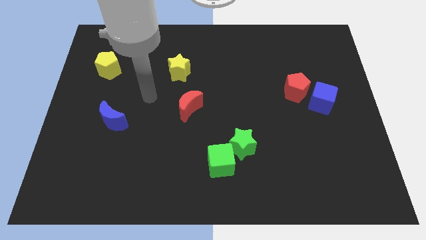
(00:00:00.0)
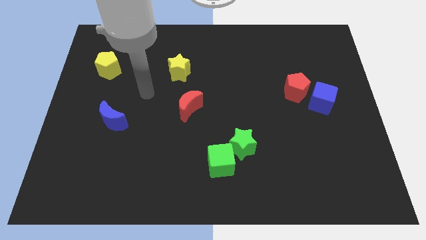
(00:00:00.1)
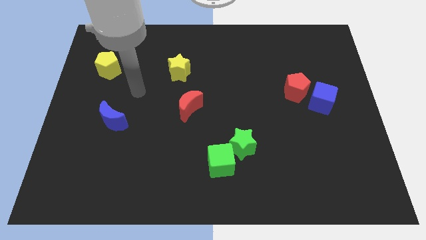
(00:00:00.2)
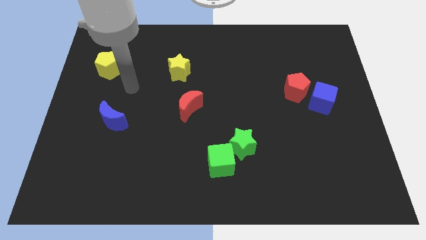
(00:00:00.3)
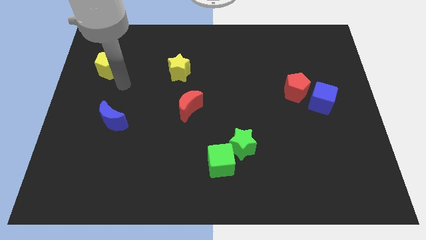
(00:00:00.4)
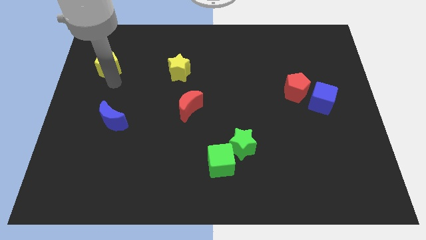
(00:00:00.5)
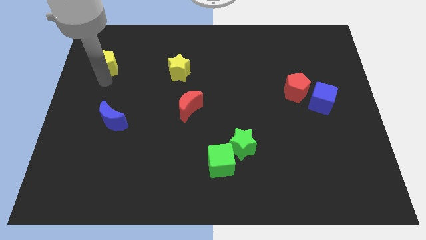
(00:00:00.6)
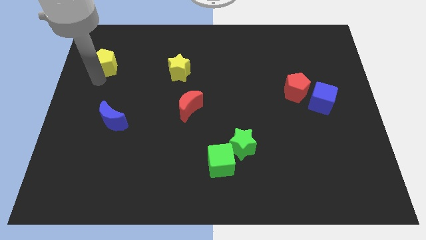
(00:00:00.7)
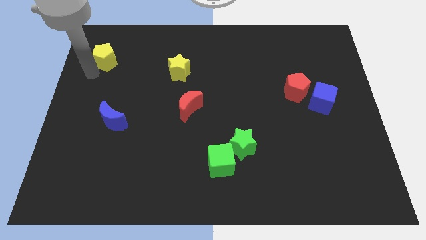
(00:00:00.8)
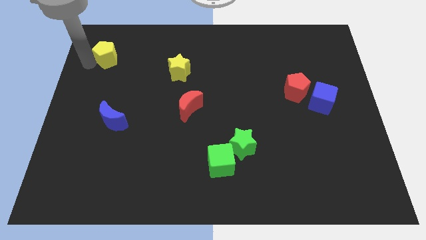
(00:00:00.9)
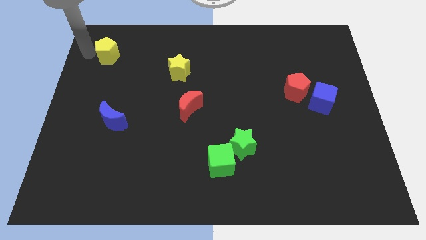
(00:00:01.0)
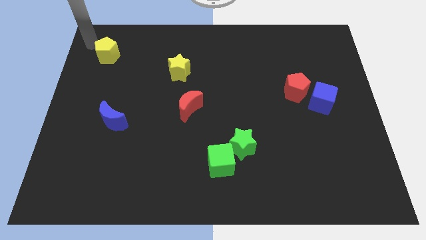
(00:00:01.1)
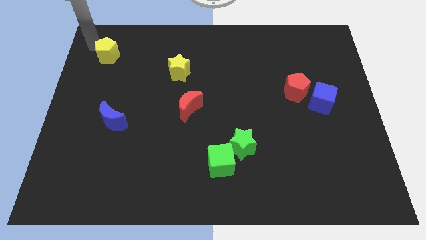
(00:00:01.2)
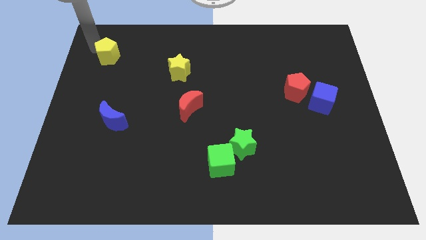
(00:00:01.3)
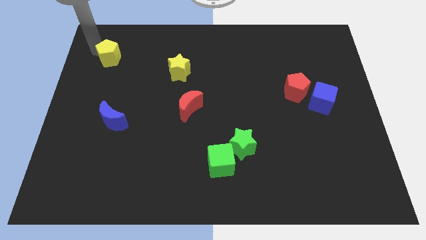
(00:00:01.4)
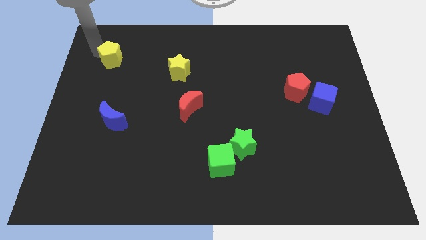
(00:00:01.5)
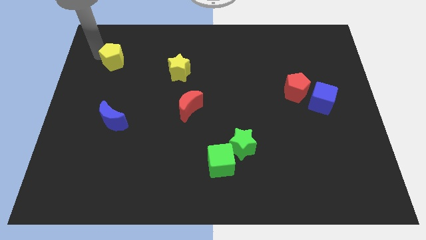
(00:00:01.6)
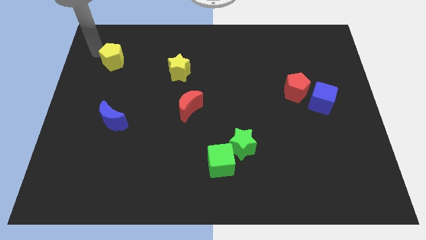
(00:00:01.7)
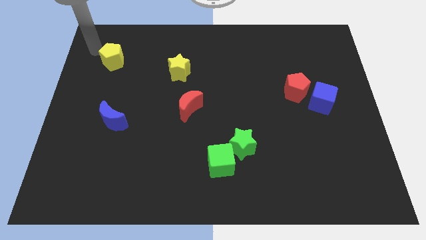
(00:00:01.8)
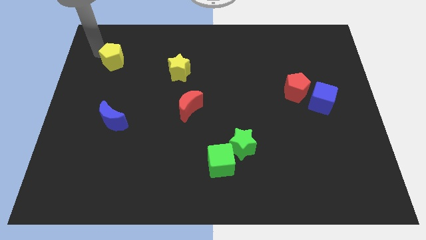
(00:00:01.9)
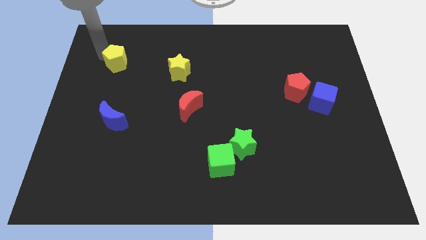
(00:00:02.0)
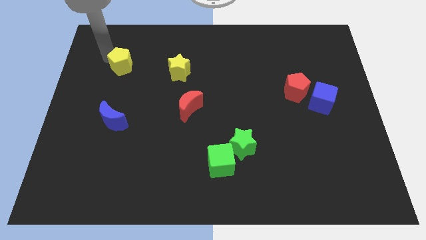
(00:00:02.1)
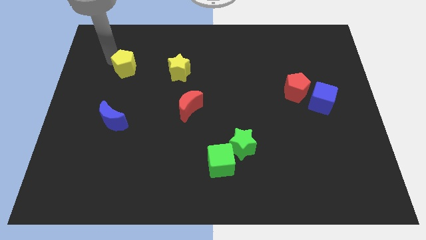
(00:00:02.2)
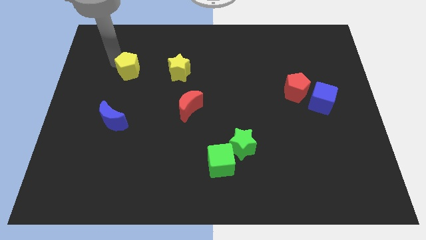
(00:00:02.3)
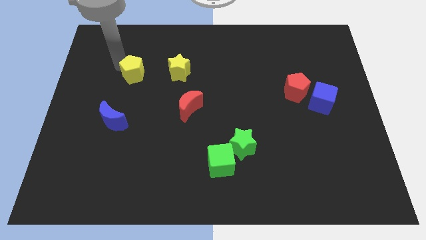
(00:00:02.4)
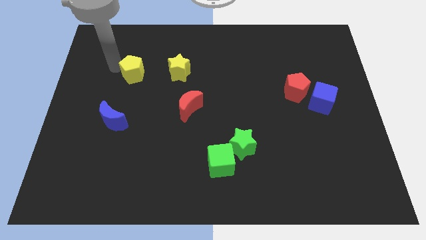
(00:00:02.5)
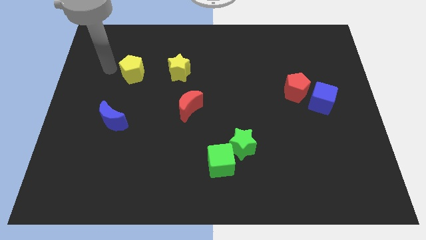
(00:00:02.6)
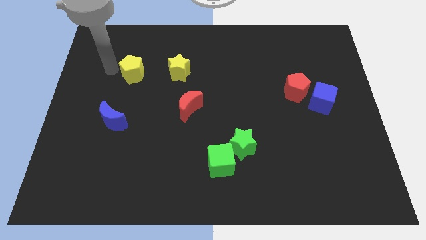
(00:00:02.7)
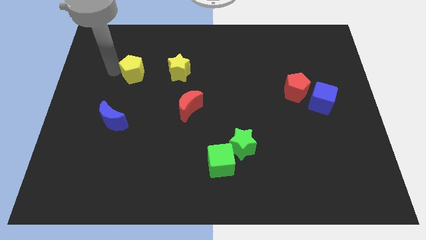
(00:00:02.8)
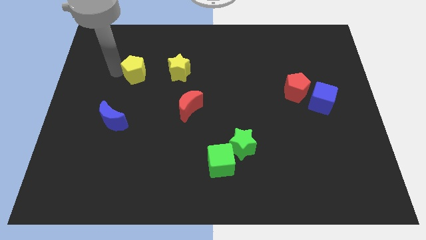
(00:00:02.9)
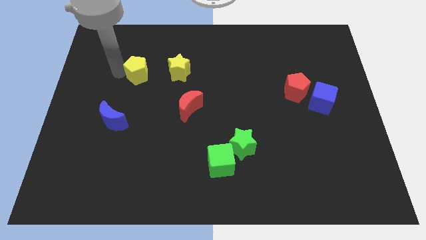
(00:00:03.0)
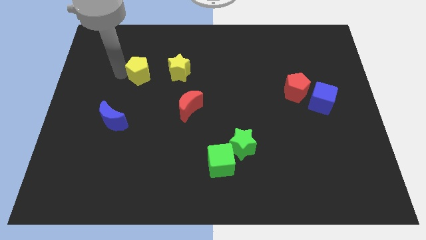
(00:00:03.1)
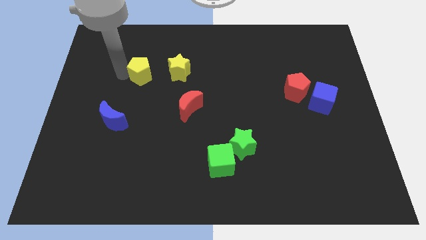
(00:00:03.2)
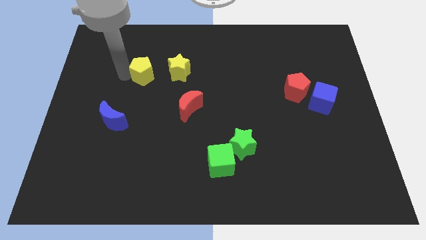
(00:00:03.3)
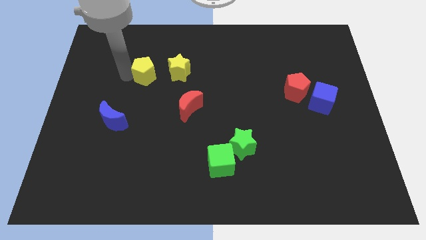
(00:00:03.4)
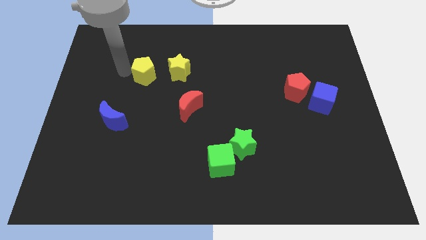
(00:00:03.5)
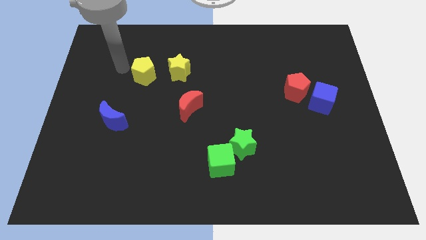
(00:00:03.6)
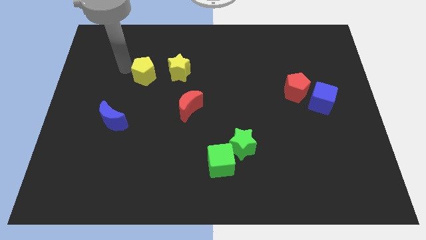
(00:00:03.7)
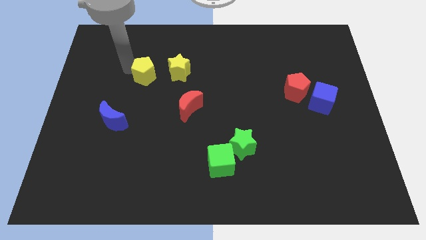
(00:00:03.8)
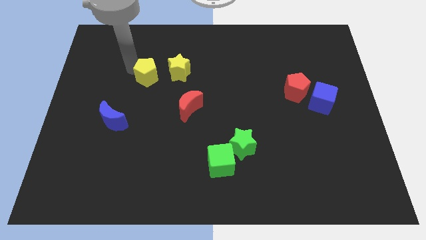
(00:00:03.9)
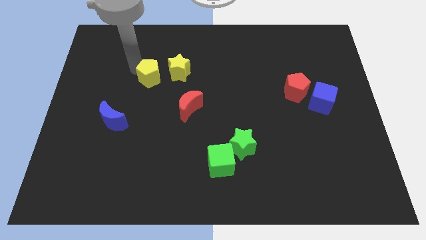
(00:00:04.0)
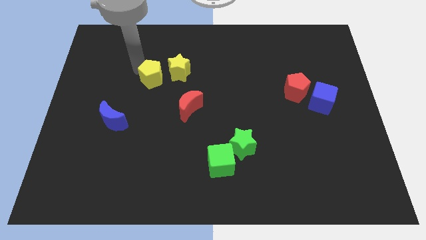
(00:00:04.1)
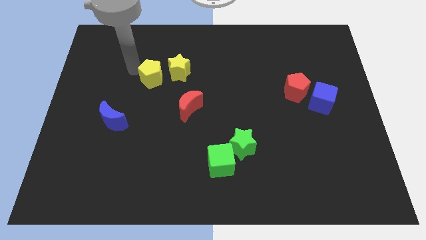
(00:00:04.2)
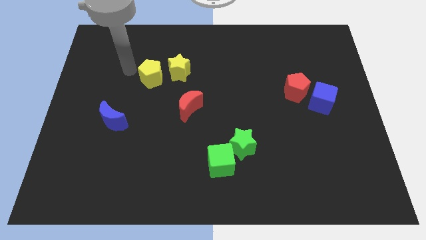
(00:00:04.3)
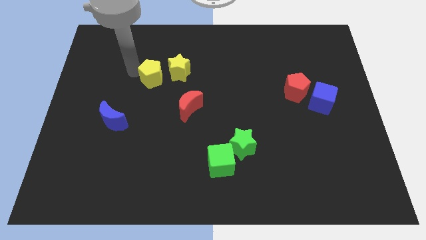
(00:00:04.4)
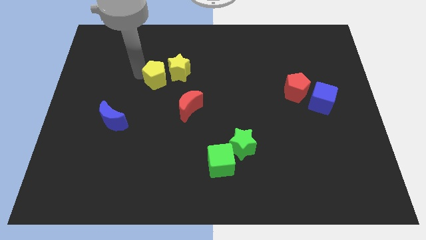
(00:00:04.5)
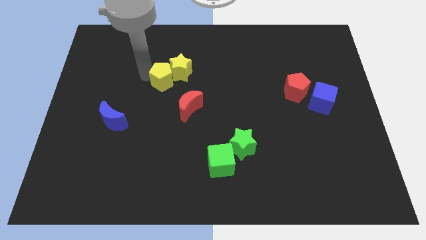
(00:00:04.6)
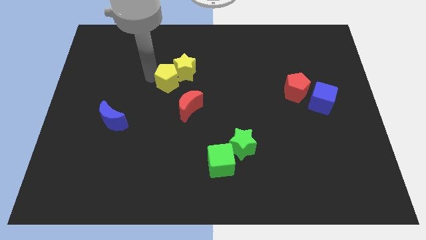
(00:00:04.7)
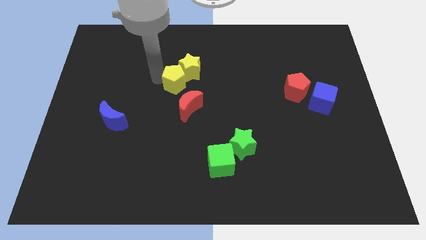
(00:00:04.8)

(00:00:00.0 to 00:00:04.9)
slide the yellow pentagon to the middle of the board
